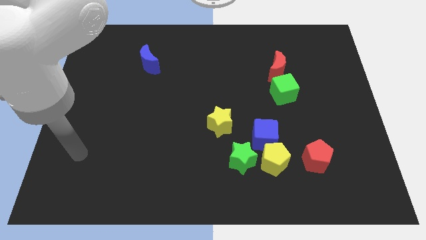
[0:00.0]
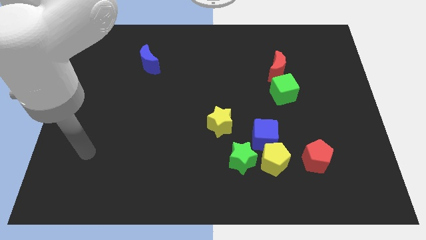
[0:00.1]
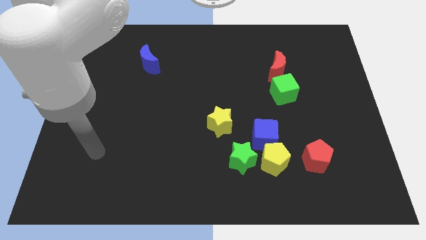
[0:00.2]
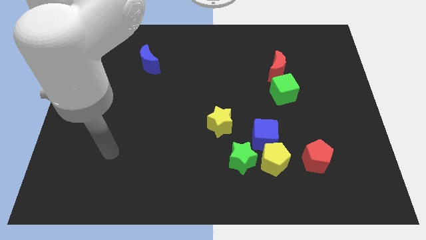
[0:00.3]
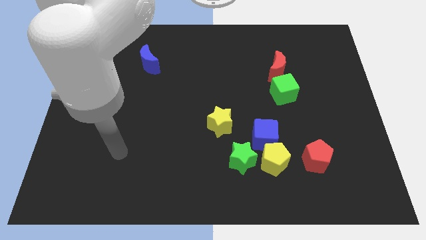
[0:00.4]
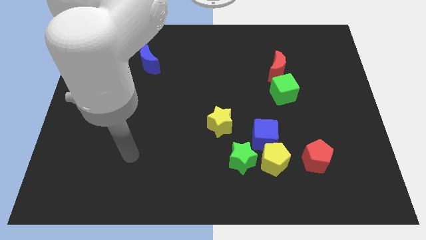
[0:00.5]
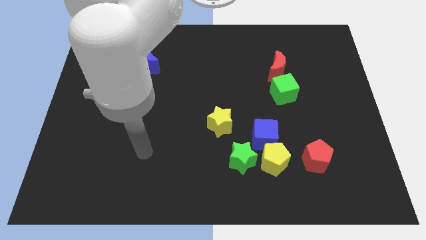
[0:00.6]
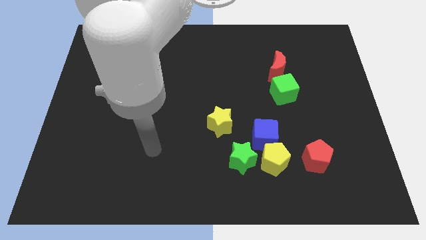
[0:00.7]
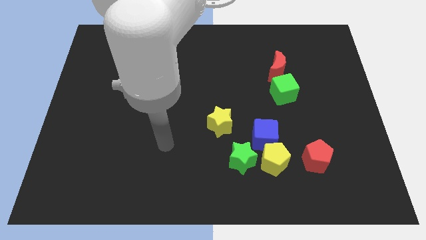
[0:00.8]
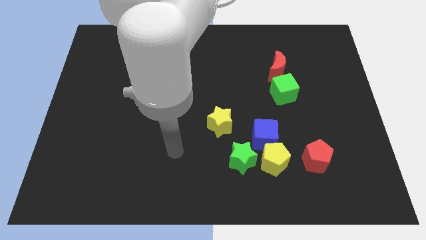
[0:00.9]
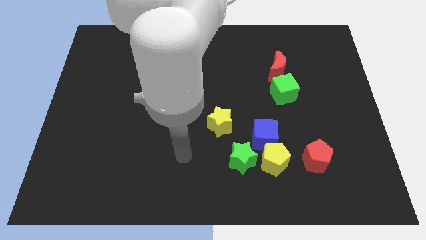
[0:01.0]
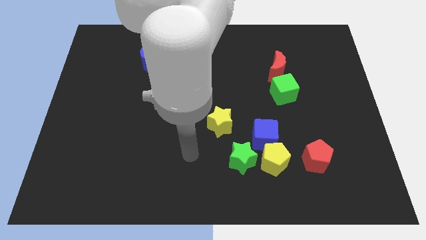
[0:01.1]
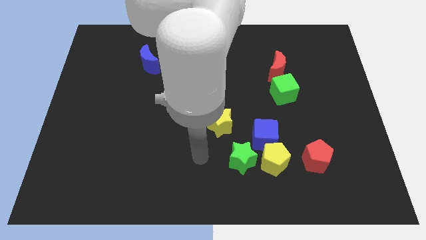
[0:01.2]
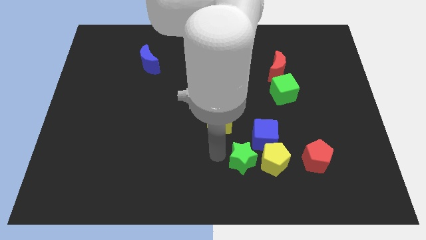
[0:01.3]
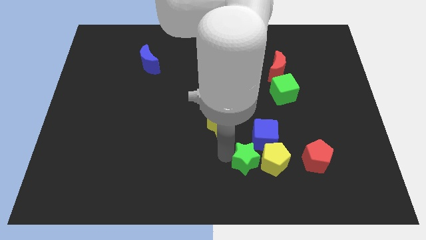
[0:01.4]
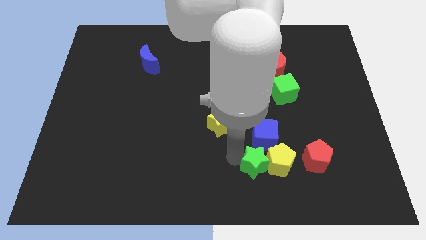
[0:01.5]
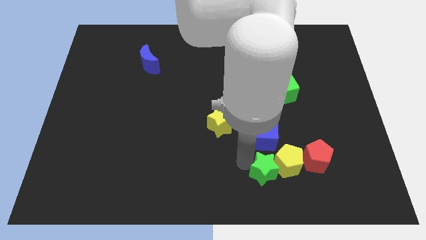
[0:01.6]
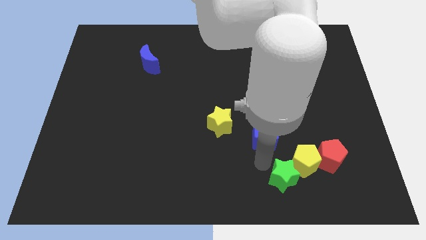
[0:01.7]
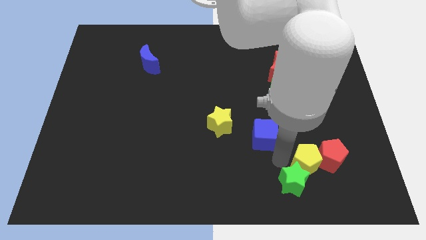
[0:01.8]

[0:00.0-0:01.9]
pull the blue cube apart from the yellow pentagon and green star

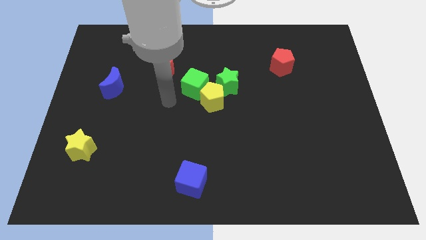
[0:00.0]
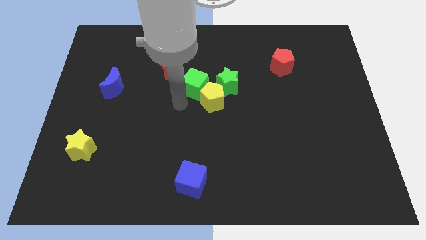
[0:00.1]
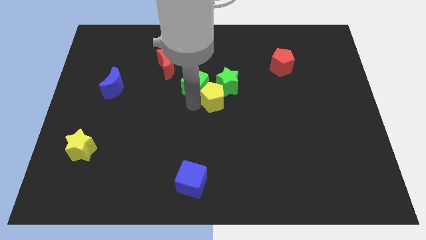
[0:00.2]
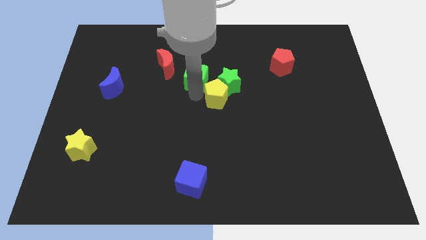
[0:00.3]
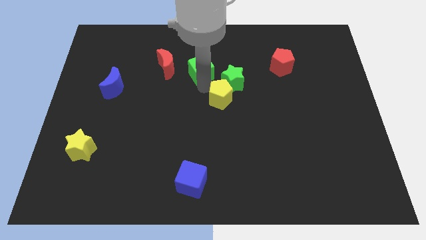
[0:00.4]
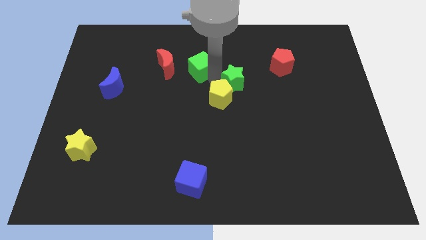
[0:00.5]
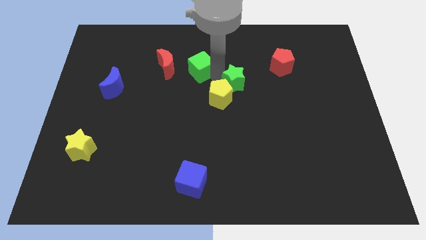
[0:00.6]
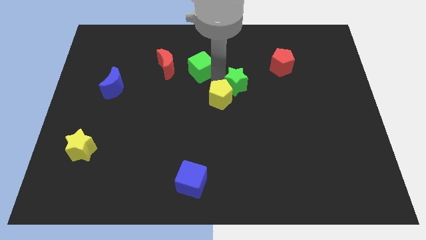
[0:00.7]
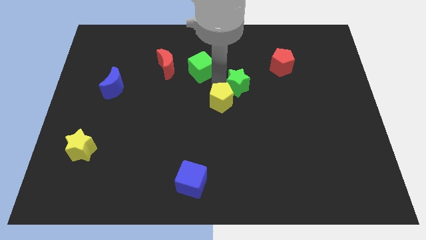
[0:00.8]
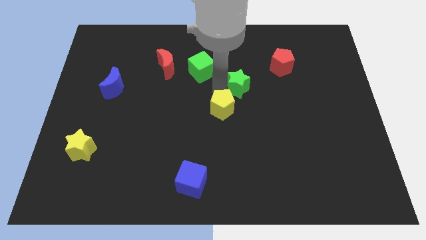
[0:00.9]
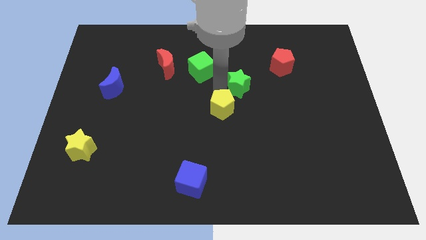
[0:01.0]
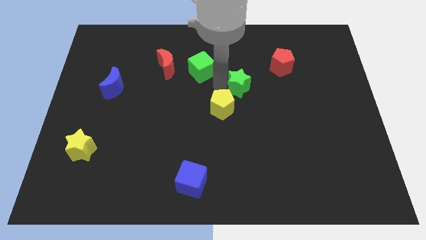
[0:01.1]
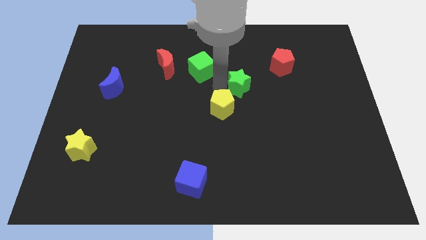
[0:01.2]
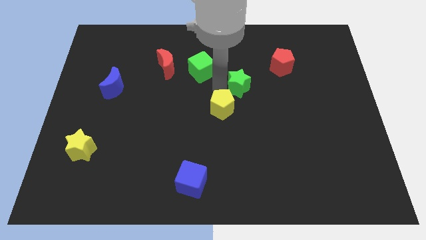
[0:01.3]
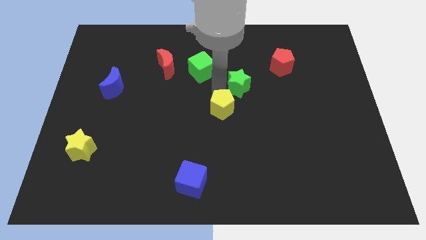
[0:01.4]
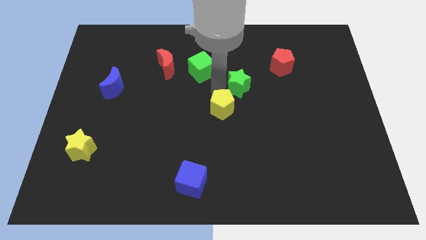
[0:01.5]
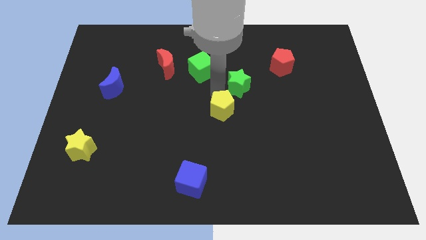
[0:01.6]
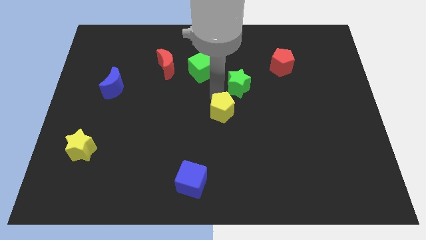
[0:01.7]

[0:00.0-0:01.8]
separate the yellow pentagon from the green cube and green star

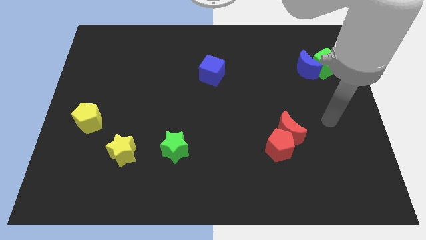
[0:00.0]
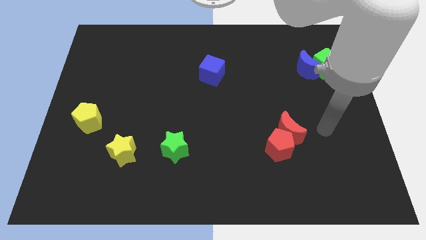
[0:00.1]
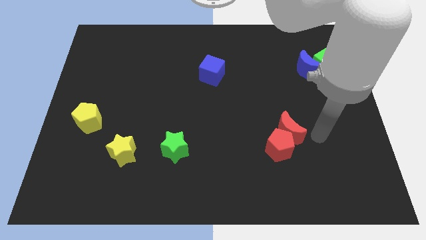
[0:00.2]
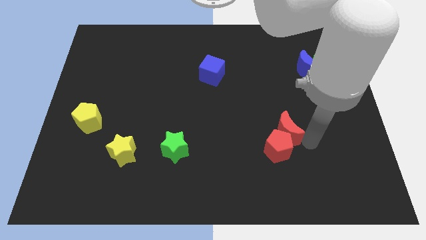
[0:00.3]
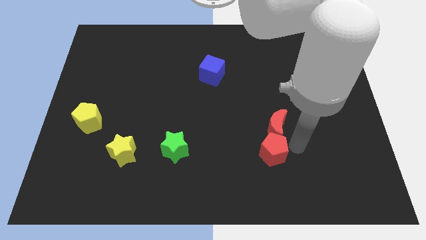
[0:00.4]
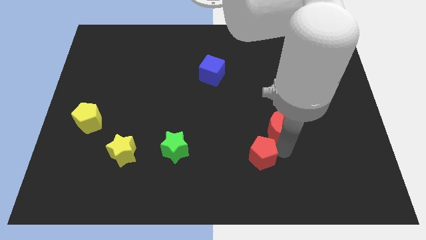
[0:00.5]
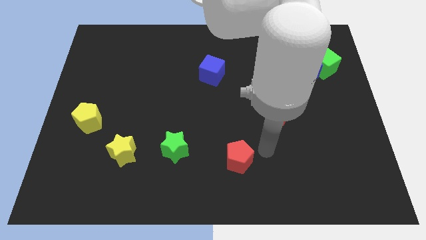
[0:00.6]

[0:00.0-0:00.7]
separate the red moon from the red pentagon

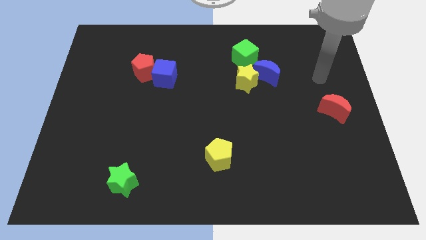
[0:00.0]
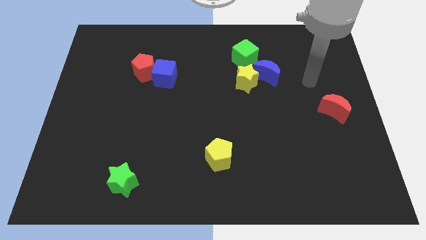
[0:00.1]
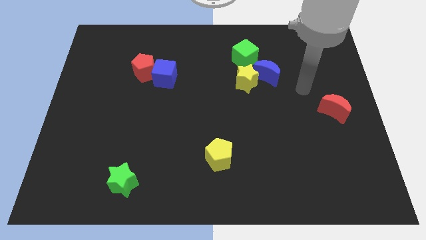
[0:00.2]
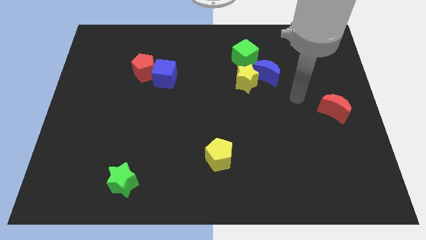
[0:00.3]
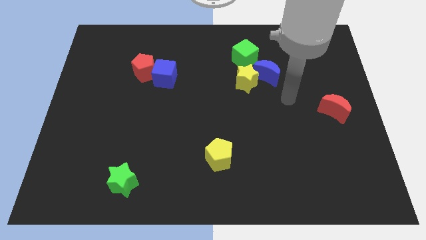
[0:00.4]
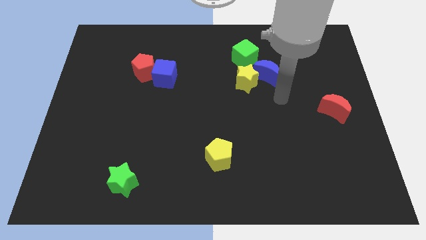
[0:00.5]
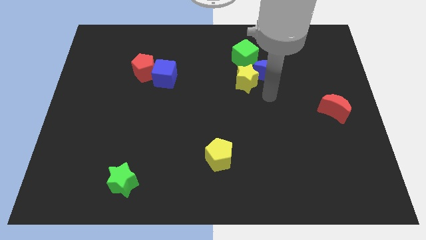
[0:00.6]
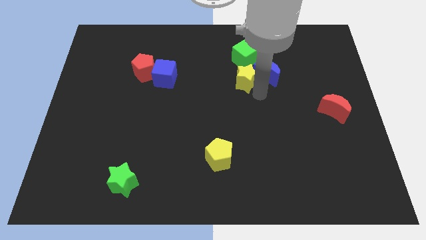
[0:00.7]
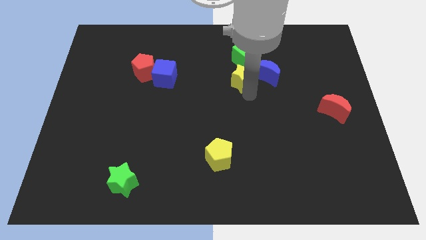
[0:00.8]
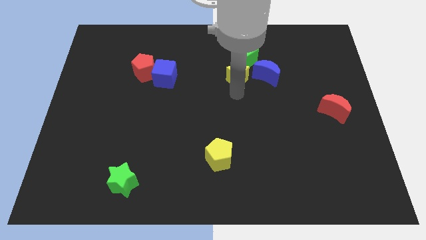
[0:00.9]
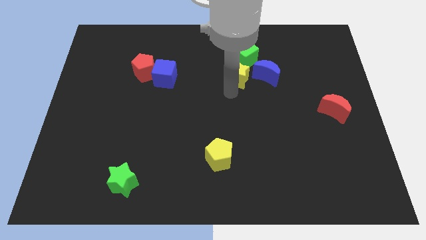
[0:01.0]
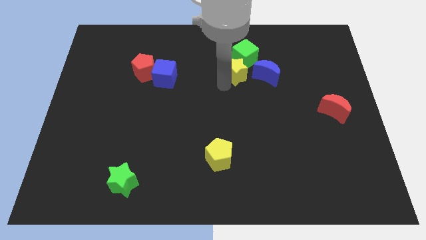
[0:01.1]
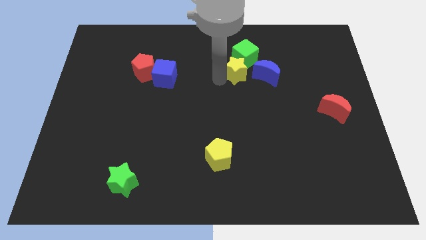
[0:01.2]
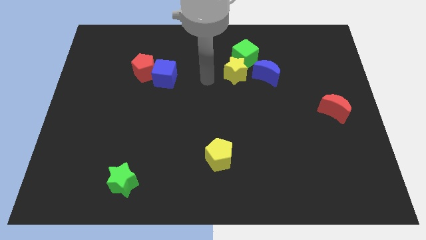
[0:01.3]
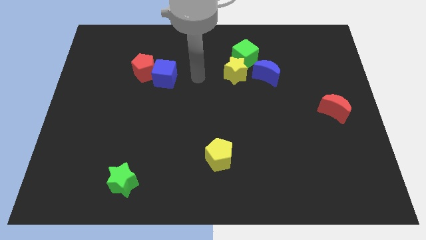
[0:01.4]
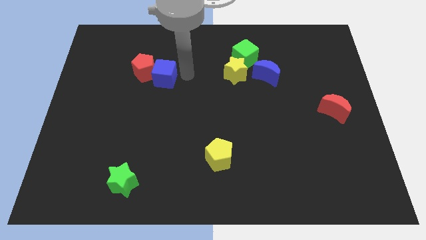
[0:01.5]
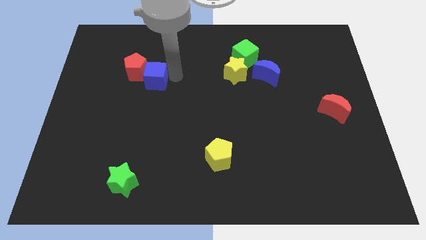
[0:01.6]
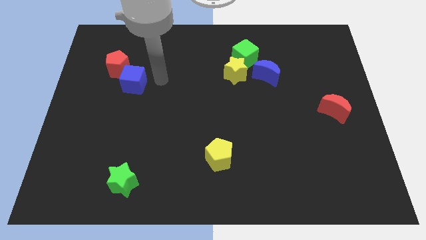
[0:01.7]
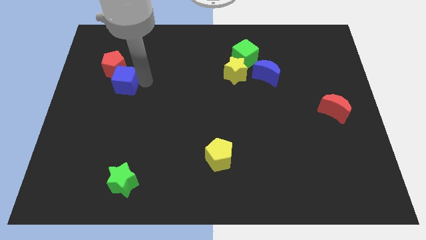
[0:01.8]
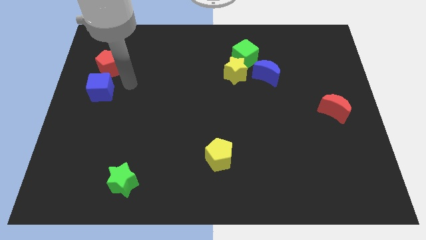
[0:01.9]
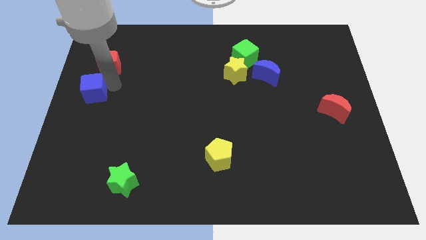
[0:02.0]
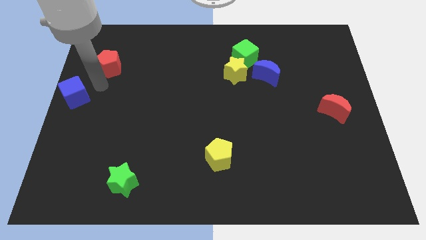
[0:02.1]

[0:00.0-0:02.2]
separate the red pentagon from the blue cube

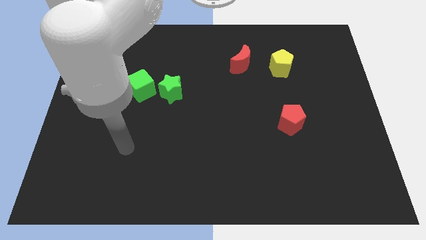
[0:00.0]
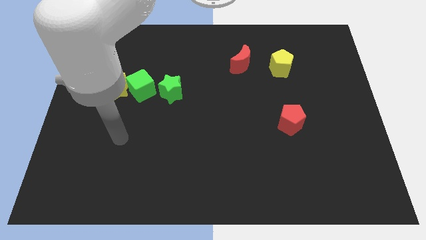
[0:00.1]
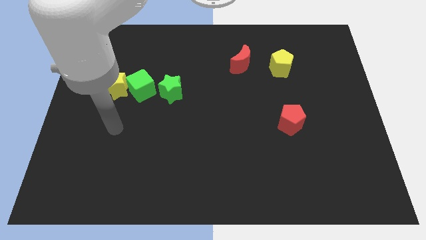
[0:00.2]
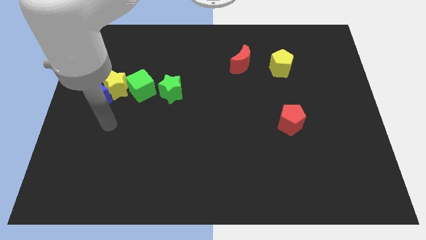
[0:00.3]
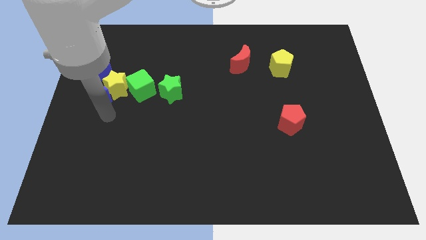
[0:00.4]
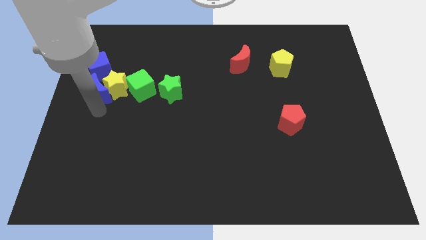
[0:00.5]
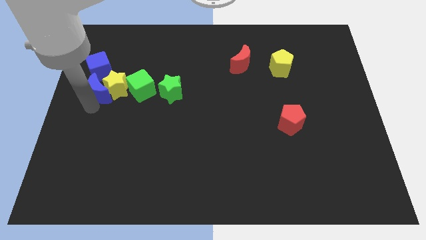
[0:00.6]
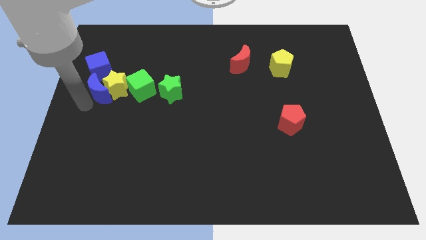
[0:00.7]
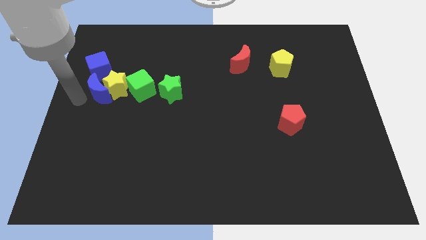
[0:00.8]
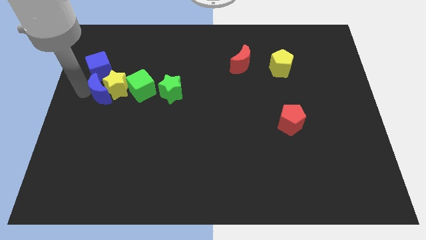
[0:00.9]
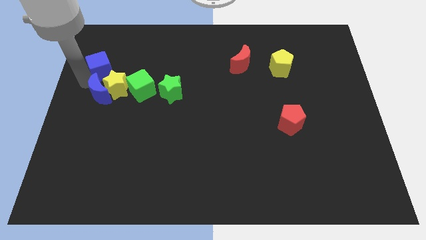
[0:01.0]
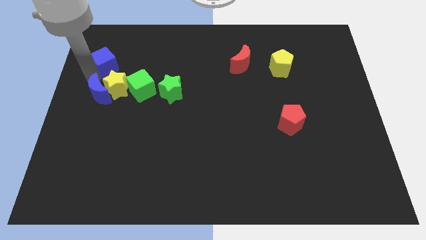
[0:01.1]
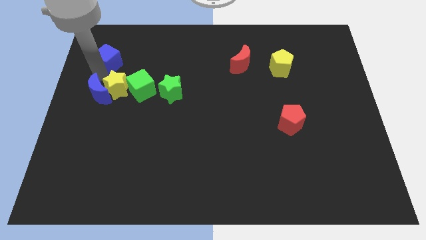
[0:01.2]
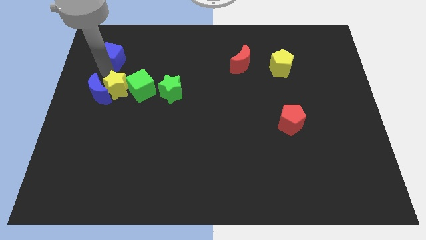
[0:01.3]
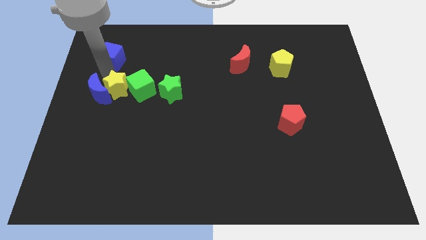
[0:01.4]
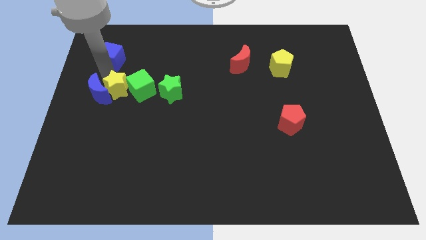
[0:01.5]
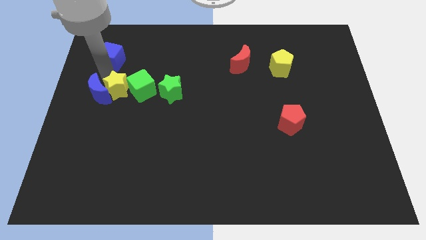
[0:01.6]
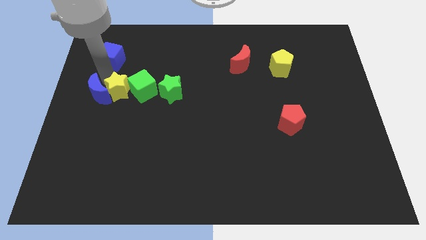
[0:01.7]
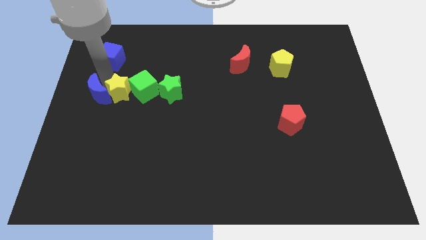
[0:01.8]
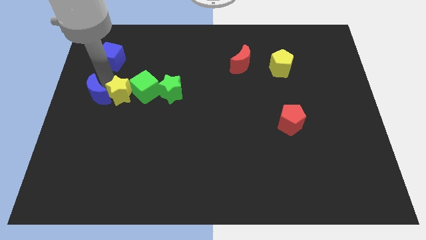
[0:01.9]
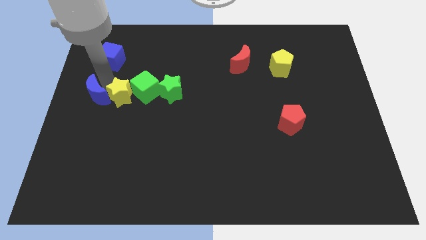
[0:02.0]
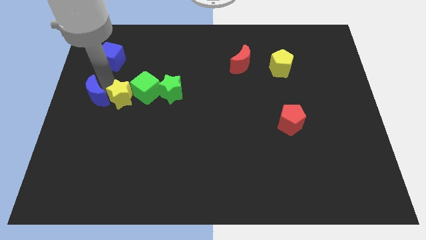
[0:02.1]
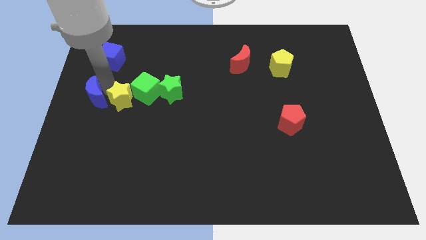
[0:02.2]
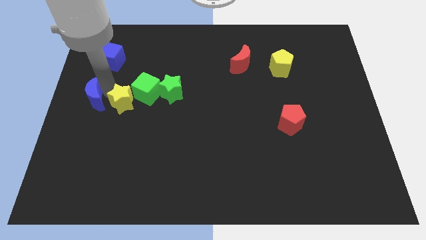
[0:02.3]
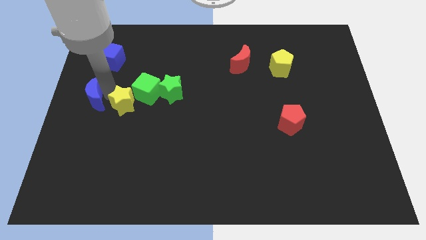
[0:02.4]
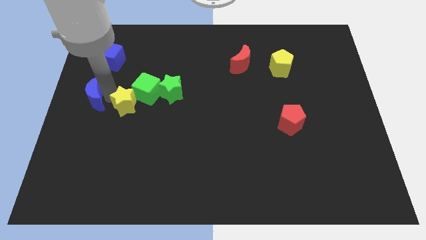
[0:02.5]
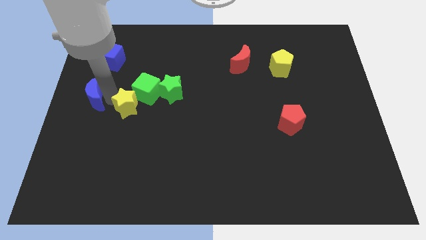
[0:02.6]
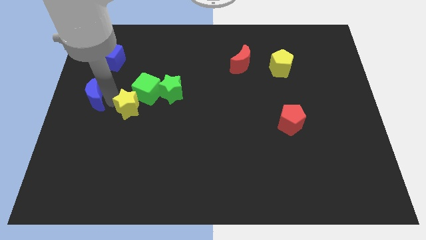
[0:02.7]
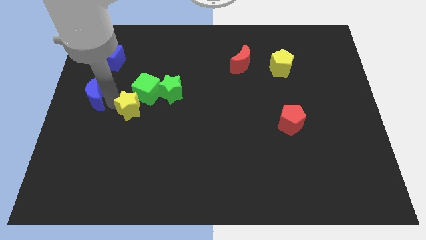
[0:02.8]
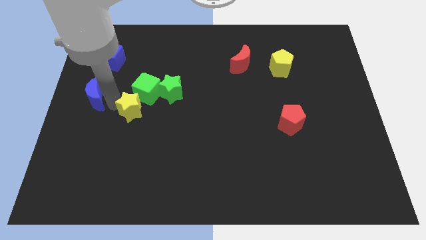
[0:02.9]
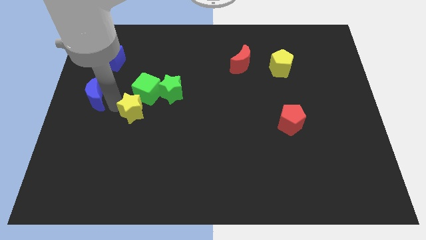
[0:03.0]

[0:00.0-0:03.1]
separate the yellow star from the blue moon, green cube, and blue cube
